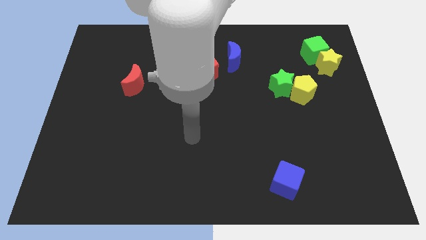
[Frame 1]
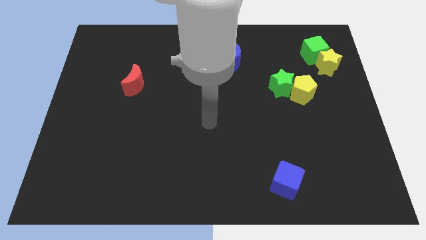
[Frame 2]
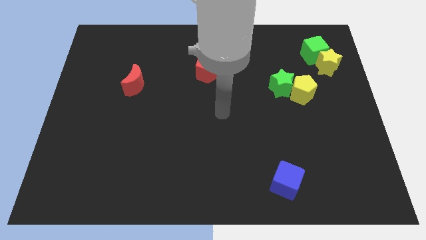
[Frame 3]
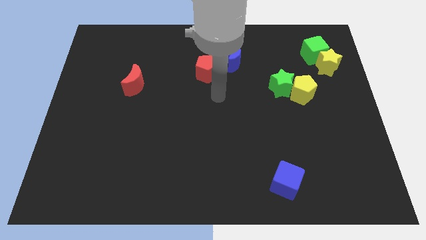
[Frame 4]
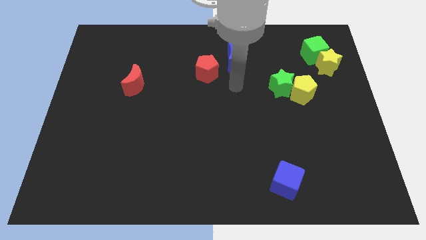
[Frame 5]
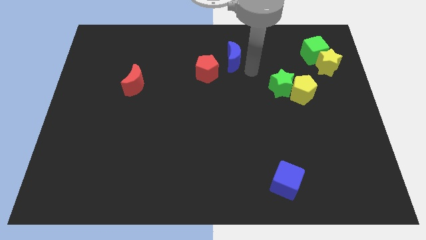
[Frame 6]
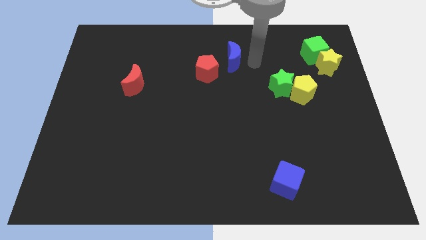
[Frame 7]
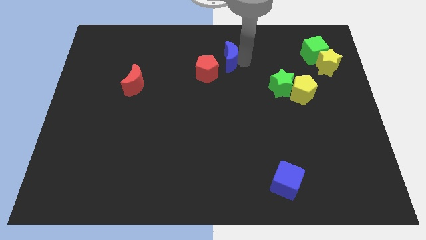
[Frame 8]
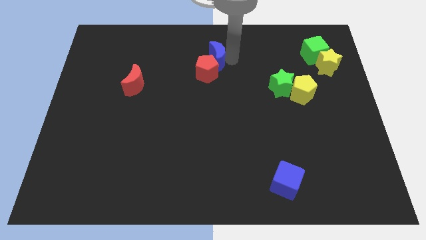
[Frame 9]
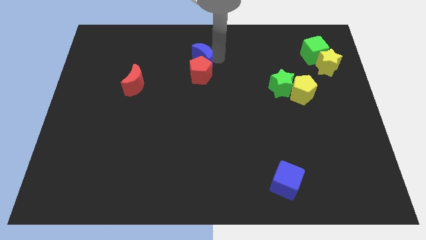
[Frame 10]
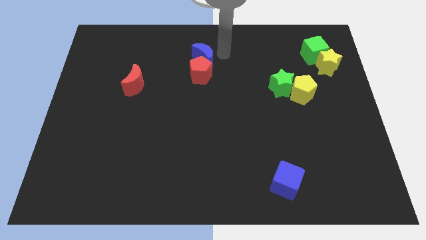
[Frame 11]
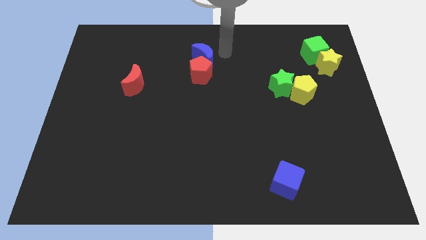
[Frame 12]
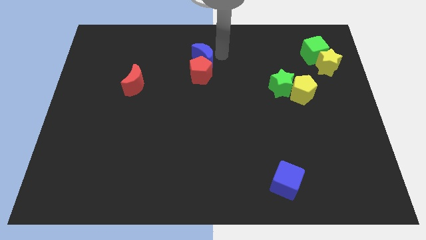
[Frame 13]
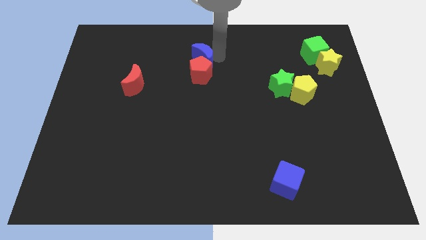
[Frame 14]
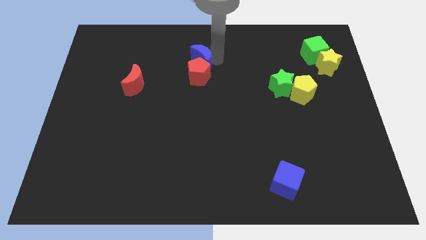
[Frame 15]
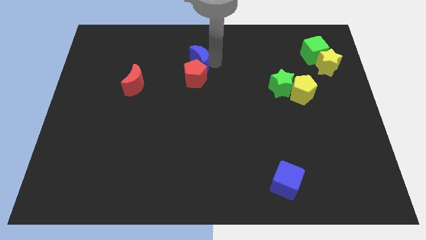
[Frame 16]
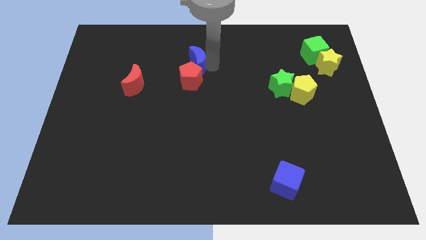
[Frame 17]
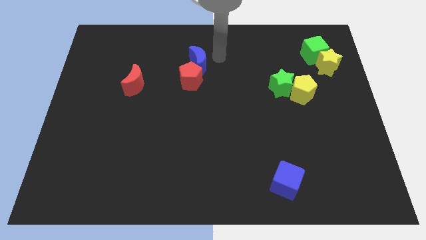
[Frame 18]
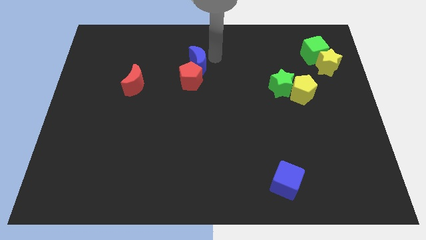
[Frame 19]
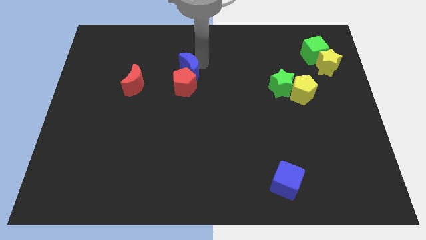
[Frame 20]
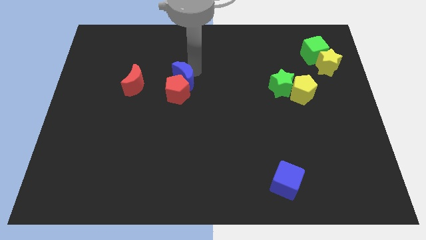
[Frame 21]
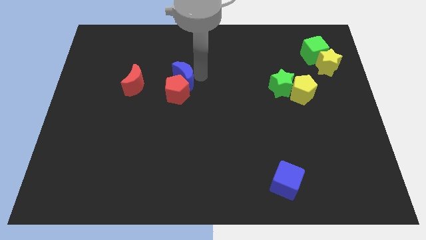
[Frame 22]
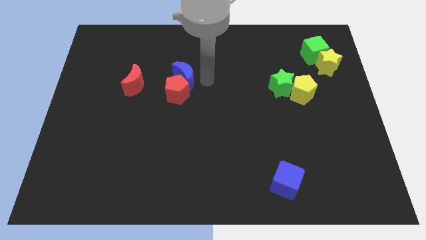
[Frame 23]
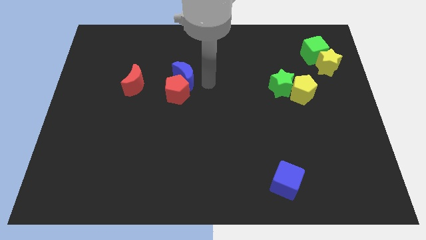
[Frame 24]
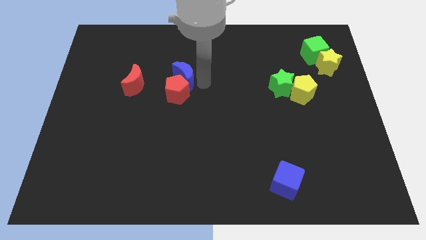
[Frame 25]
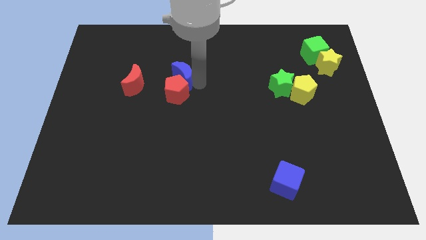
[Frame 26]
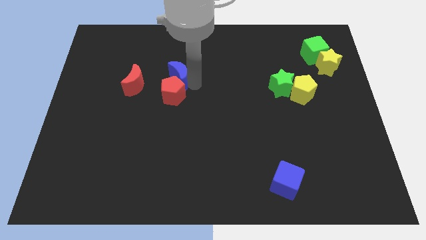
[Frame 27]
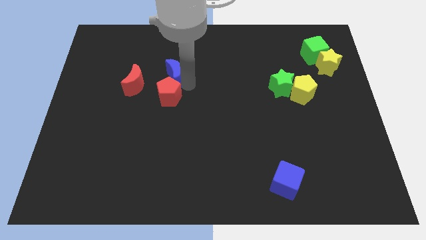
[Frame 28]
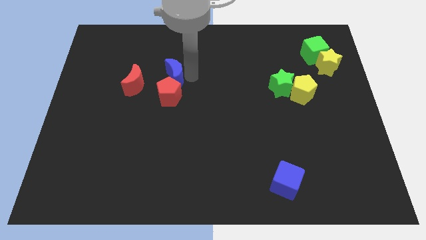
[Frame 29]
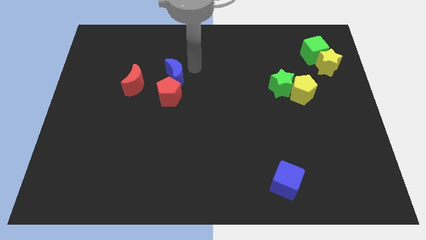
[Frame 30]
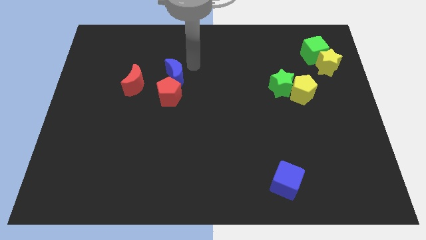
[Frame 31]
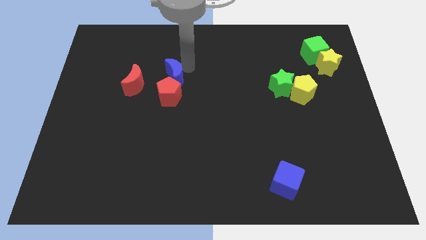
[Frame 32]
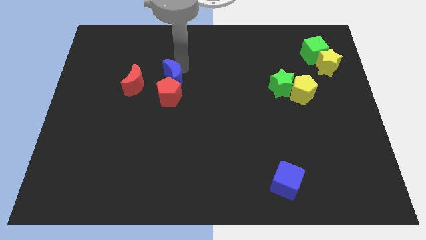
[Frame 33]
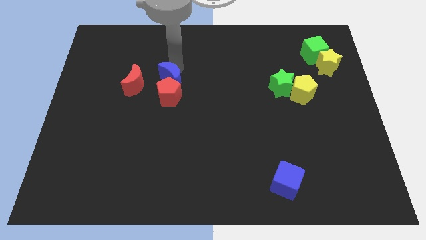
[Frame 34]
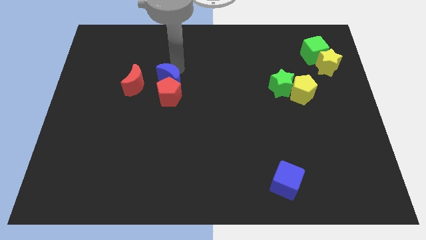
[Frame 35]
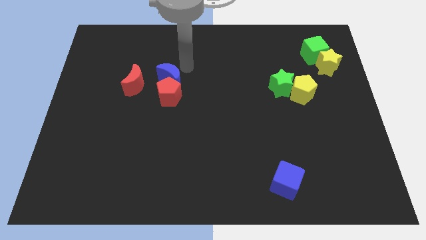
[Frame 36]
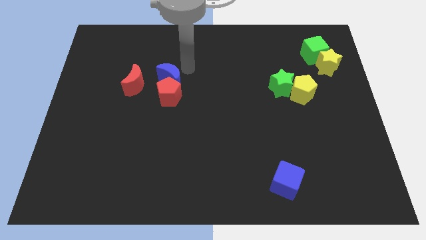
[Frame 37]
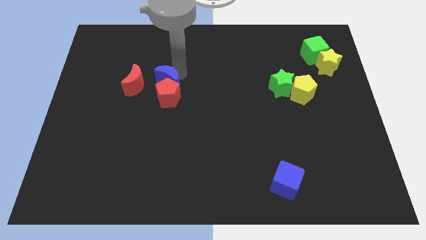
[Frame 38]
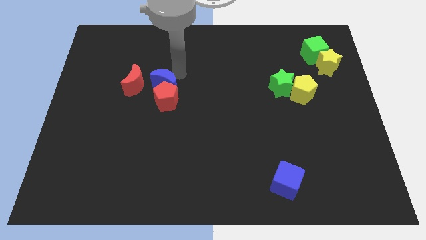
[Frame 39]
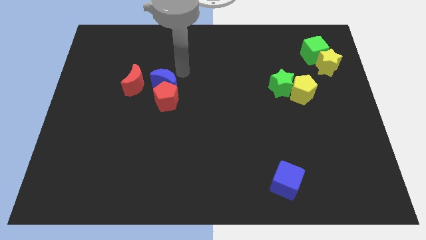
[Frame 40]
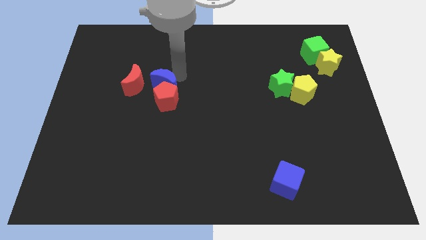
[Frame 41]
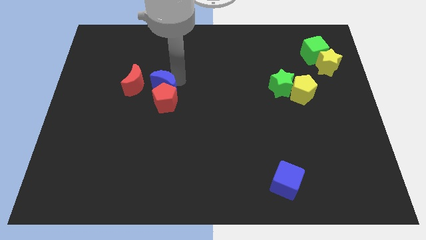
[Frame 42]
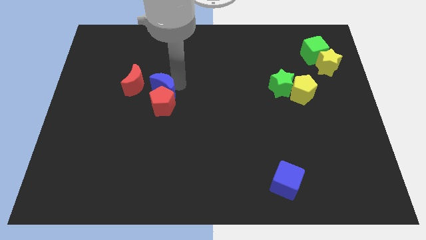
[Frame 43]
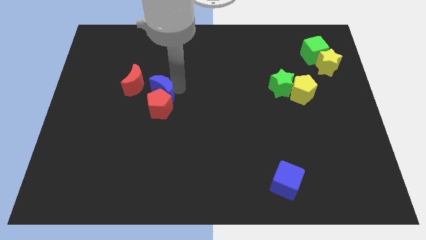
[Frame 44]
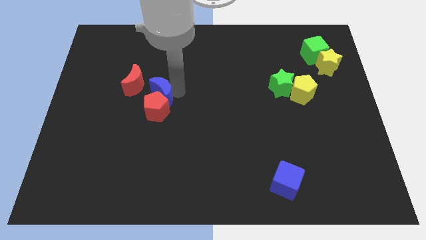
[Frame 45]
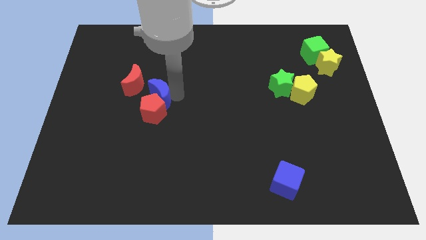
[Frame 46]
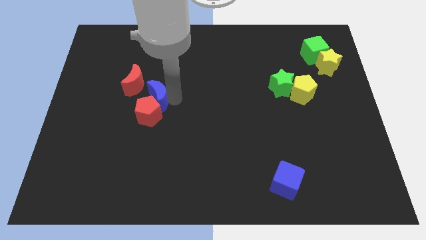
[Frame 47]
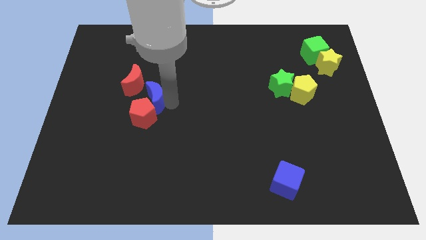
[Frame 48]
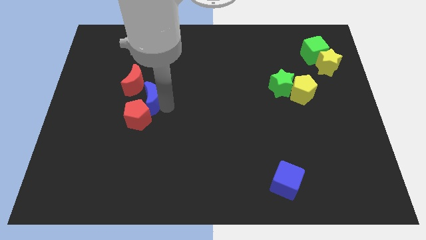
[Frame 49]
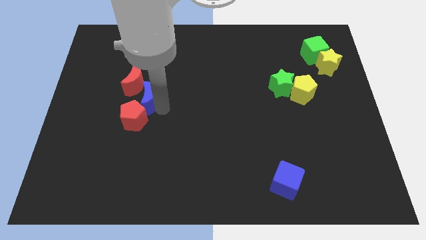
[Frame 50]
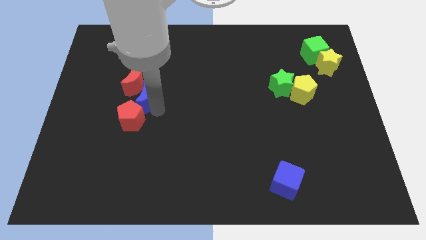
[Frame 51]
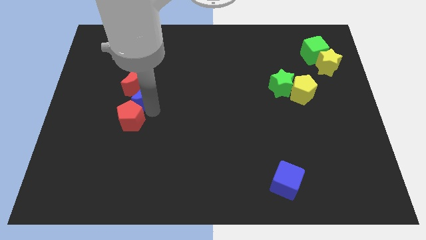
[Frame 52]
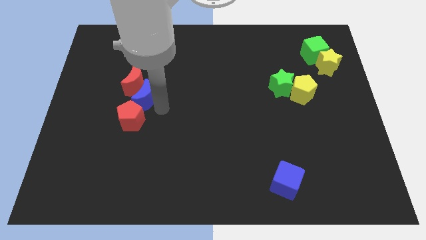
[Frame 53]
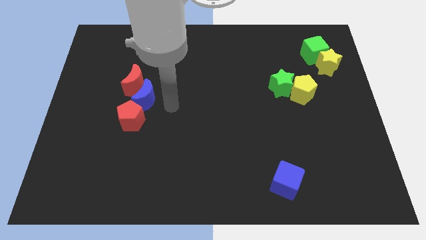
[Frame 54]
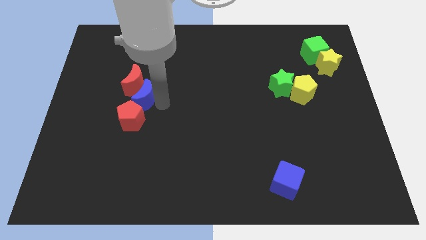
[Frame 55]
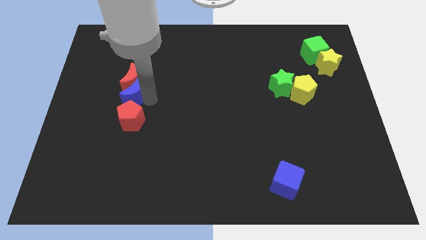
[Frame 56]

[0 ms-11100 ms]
push the blue moon diagonally down and to the left of the red moon

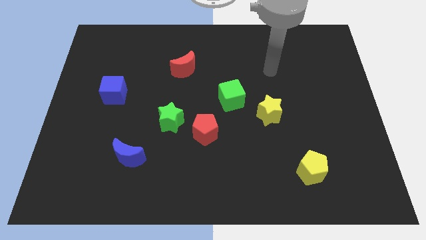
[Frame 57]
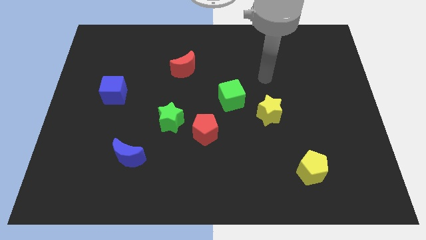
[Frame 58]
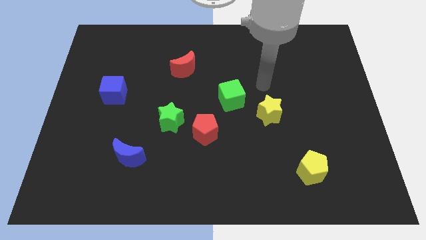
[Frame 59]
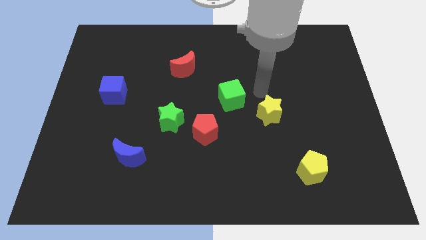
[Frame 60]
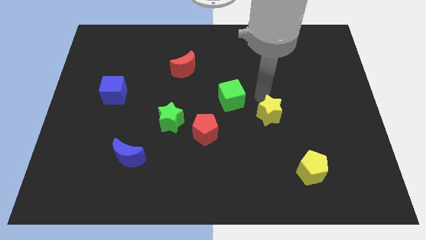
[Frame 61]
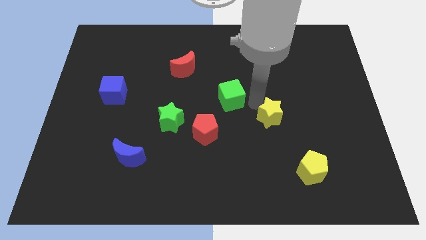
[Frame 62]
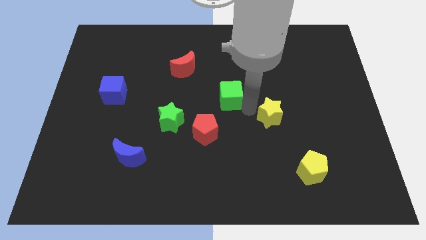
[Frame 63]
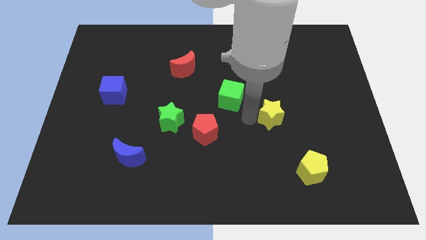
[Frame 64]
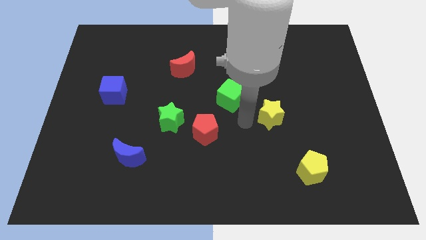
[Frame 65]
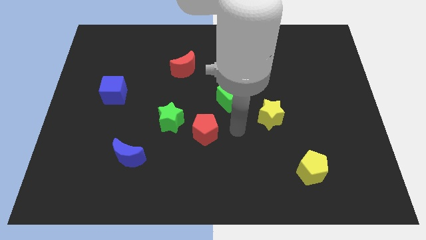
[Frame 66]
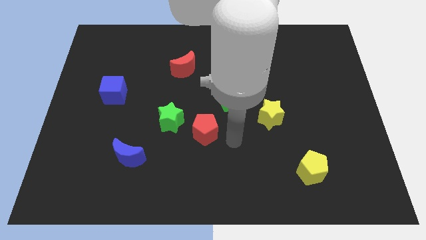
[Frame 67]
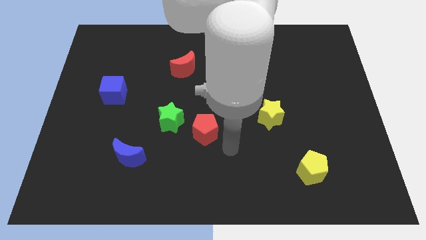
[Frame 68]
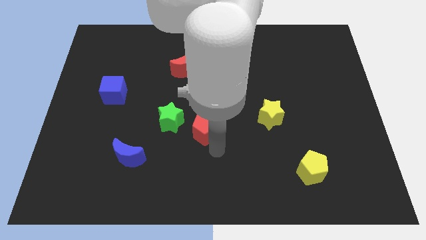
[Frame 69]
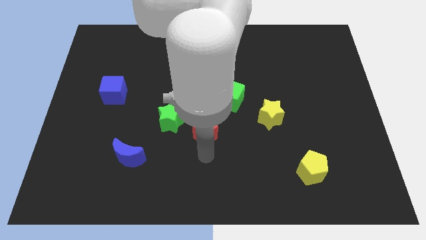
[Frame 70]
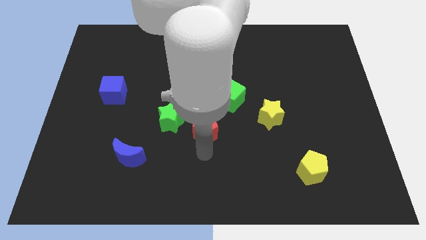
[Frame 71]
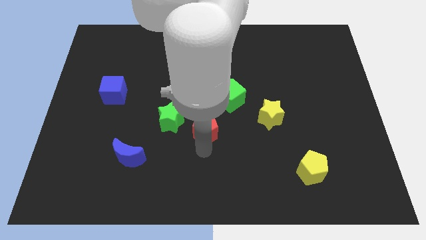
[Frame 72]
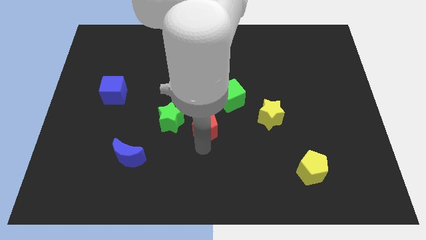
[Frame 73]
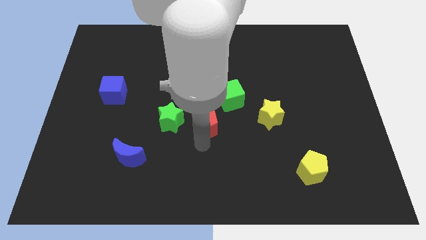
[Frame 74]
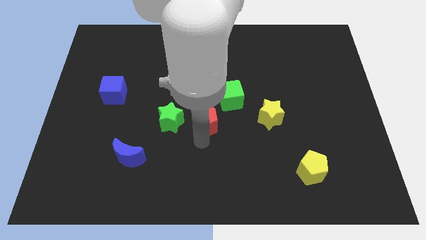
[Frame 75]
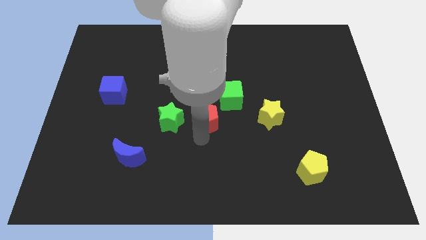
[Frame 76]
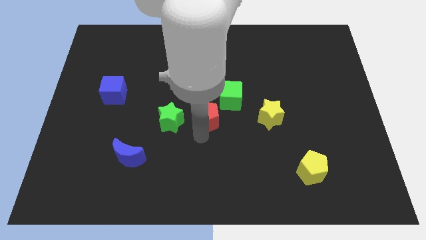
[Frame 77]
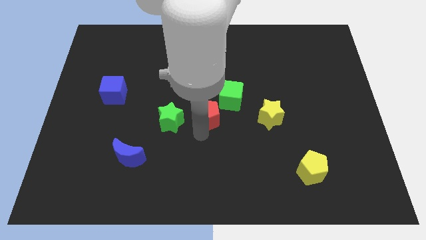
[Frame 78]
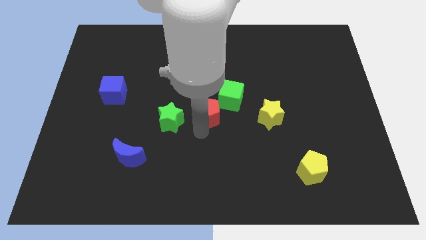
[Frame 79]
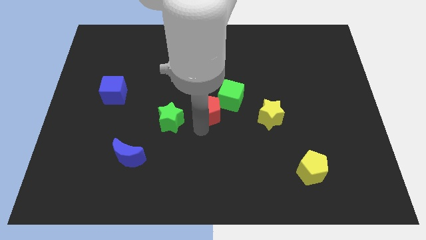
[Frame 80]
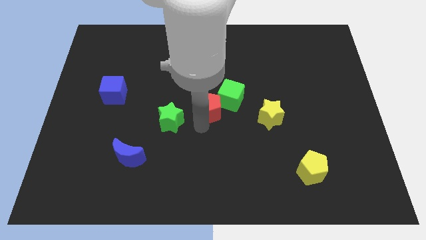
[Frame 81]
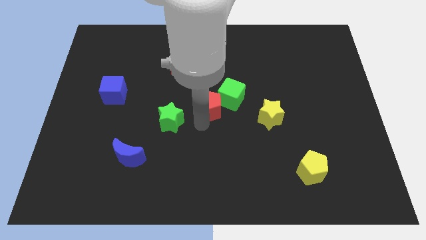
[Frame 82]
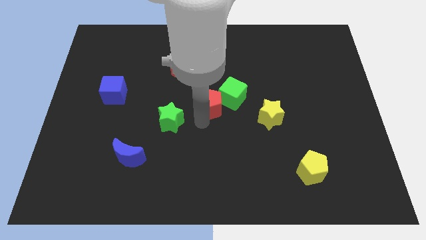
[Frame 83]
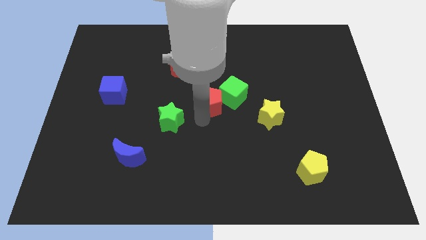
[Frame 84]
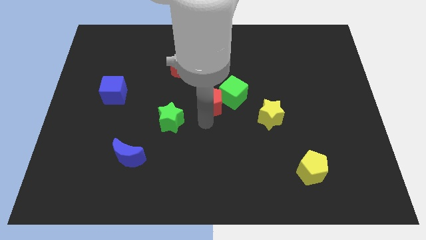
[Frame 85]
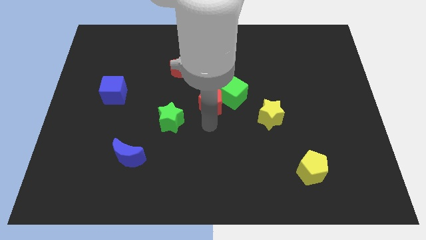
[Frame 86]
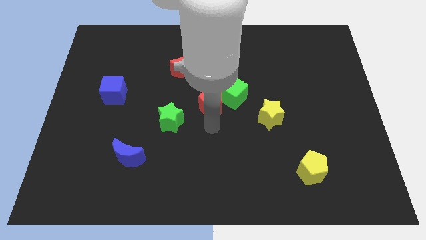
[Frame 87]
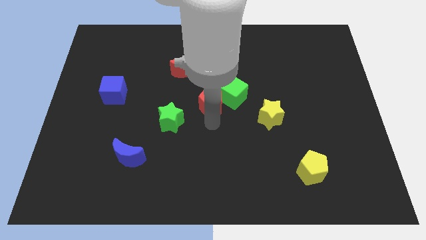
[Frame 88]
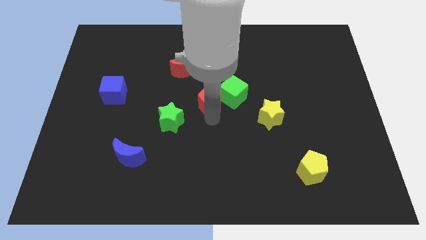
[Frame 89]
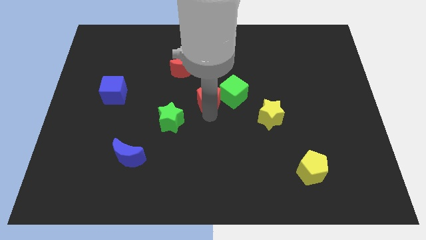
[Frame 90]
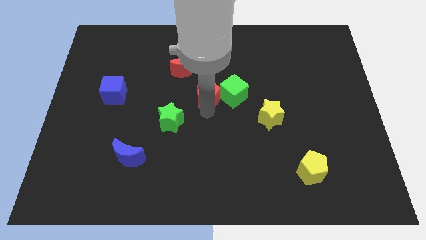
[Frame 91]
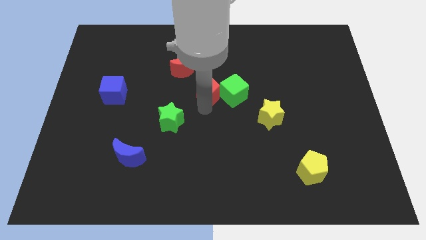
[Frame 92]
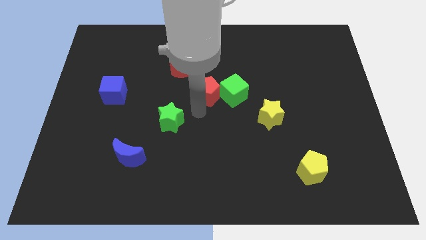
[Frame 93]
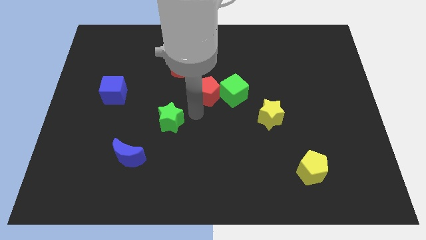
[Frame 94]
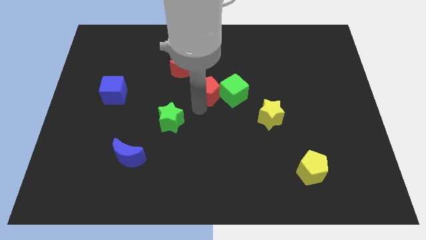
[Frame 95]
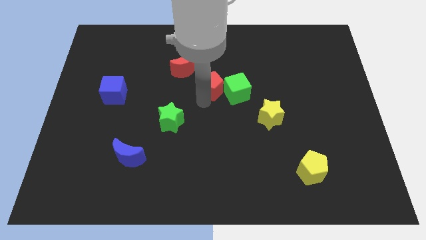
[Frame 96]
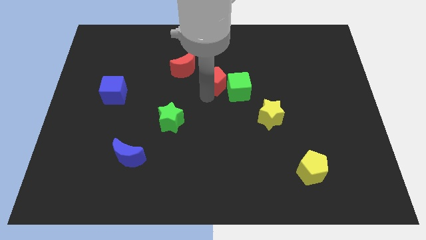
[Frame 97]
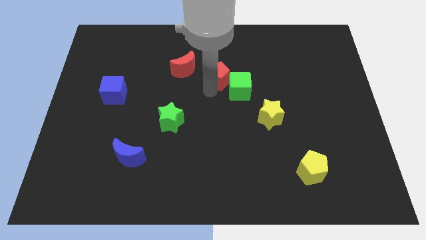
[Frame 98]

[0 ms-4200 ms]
push the red pentagon to the right side of the red moon
